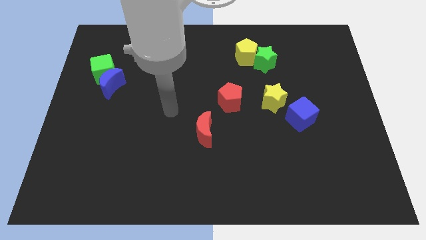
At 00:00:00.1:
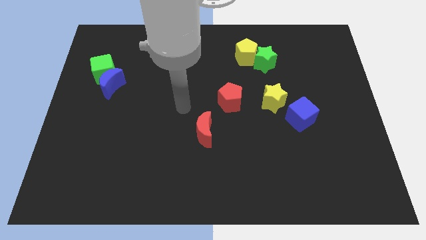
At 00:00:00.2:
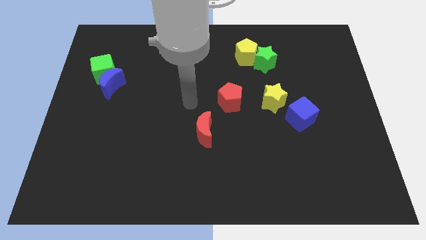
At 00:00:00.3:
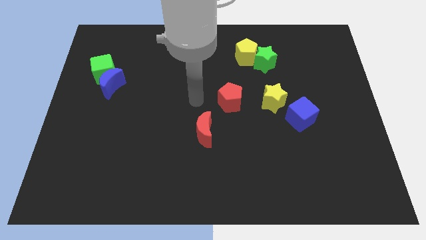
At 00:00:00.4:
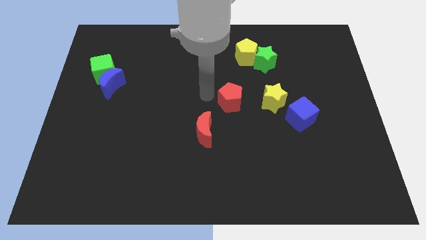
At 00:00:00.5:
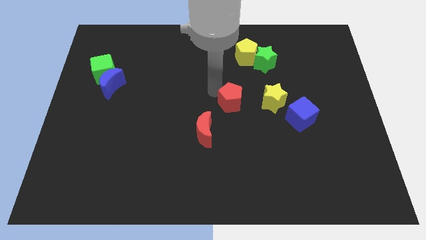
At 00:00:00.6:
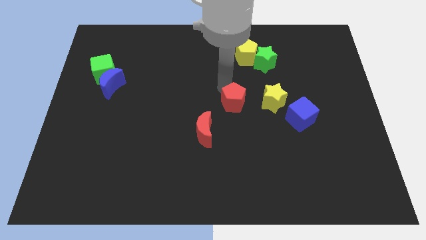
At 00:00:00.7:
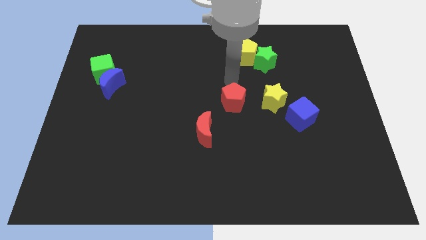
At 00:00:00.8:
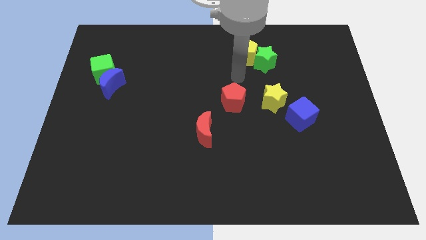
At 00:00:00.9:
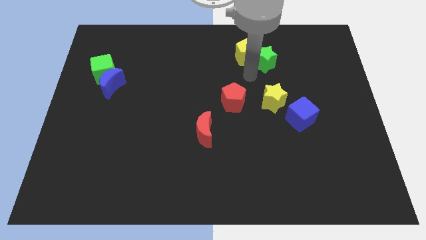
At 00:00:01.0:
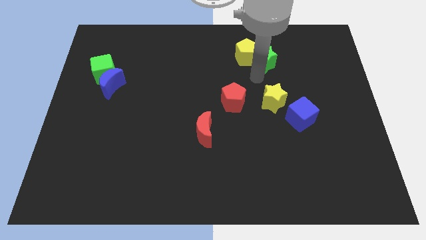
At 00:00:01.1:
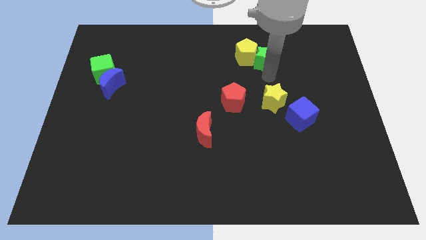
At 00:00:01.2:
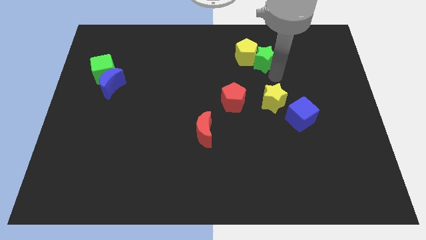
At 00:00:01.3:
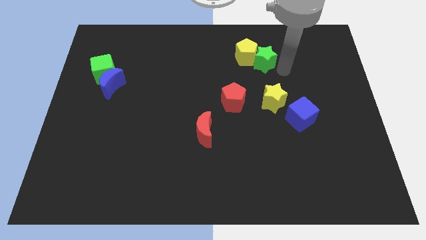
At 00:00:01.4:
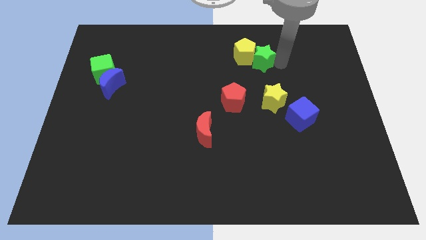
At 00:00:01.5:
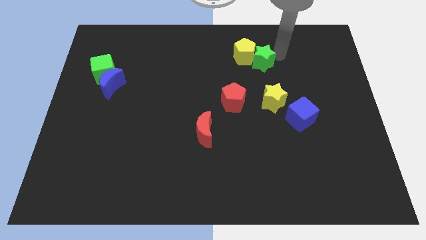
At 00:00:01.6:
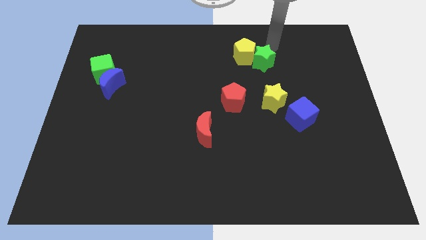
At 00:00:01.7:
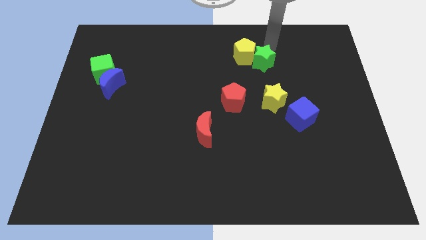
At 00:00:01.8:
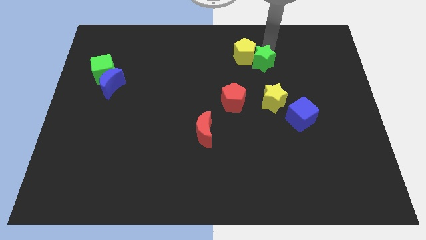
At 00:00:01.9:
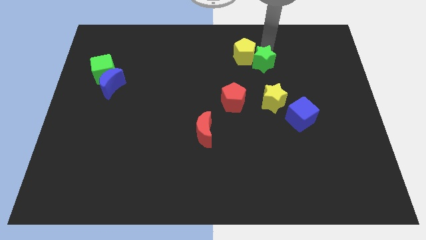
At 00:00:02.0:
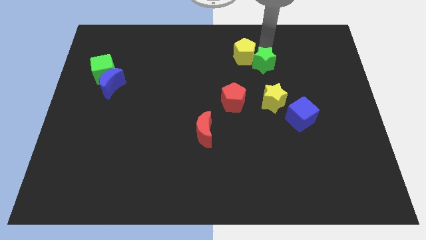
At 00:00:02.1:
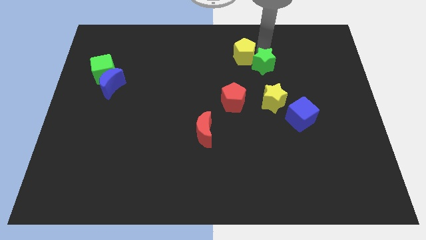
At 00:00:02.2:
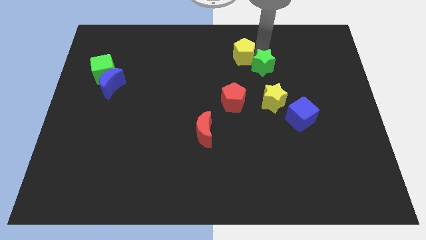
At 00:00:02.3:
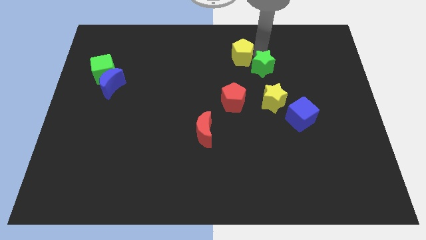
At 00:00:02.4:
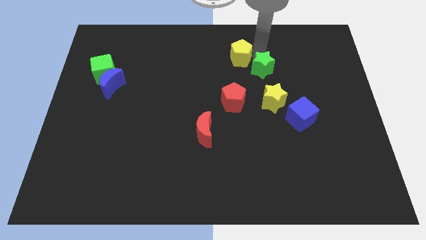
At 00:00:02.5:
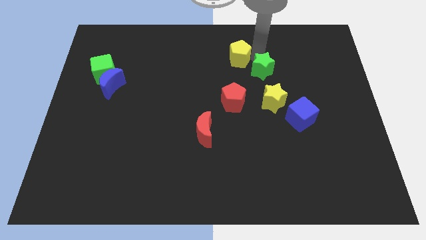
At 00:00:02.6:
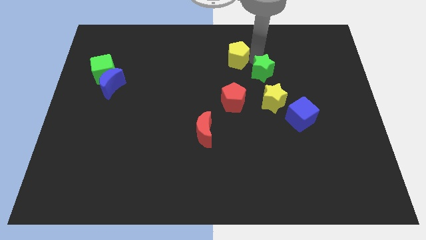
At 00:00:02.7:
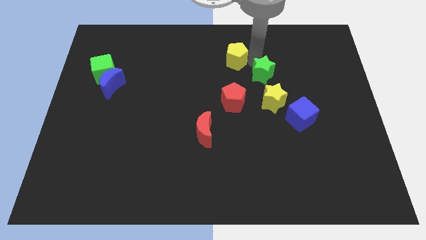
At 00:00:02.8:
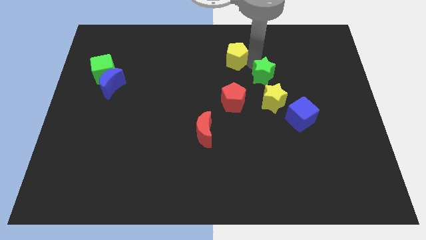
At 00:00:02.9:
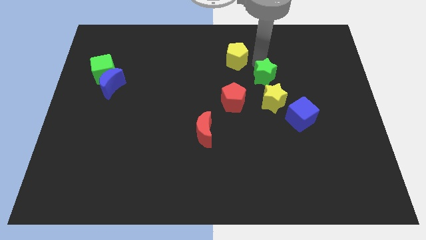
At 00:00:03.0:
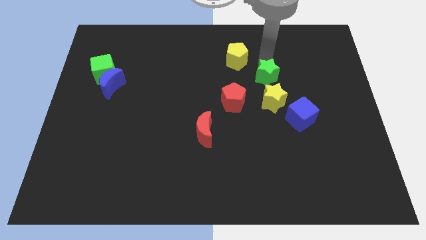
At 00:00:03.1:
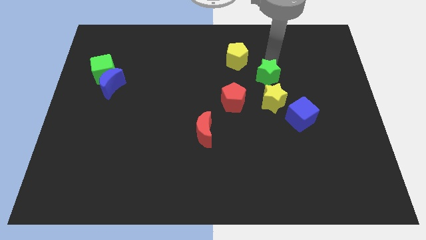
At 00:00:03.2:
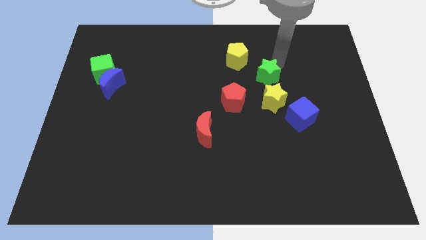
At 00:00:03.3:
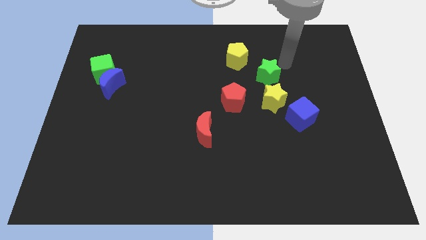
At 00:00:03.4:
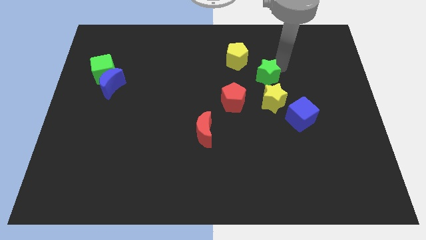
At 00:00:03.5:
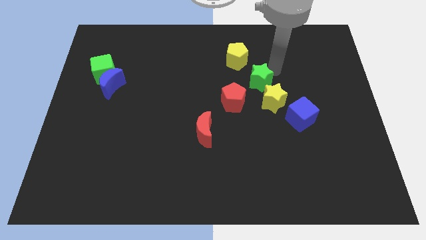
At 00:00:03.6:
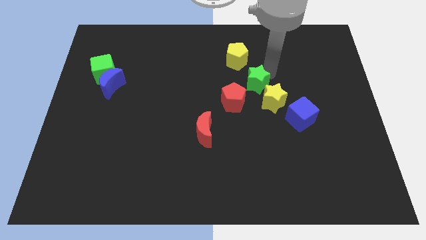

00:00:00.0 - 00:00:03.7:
slightly push the green star downwards

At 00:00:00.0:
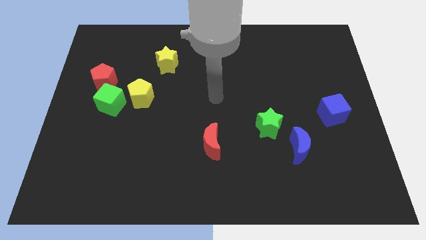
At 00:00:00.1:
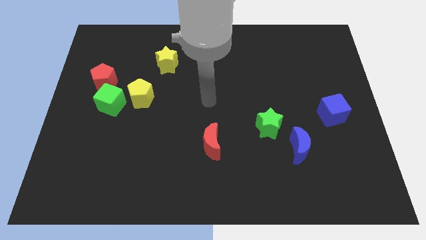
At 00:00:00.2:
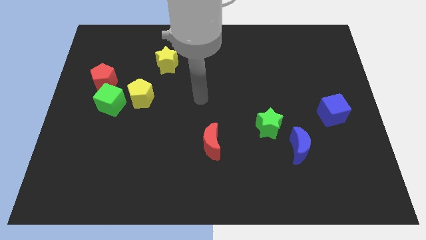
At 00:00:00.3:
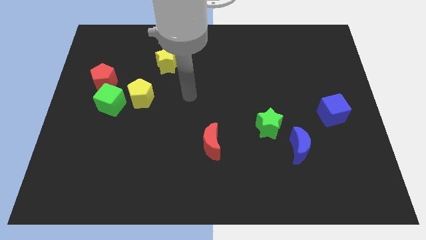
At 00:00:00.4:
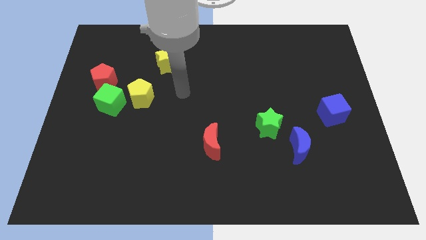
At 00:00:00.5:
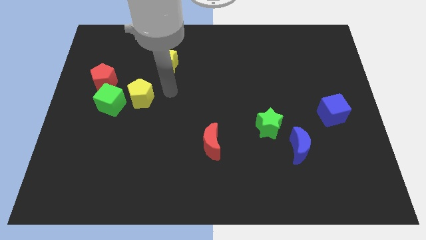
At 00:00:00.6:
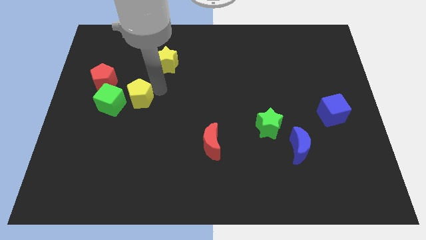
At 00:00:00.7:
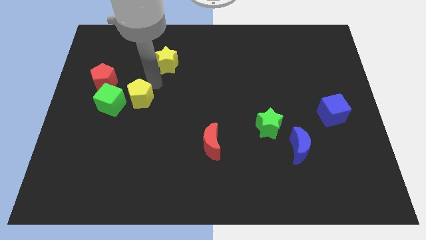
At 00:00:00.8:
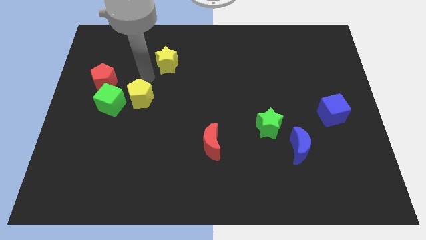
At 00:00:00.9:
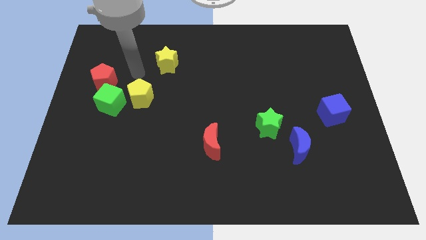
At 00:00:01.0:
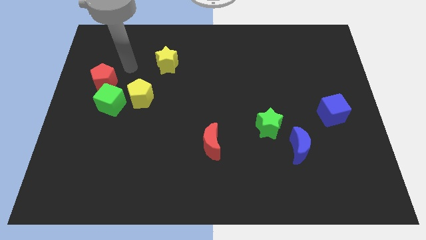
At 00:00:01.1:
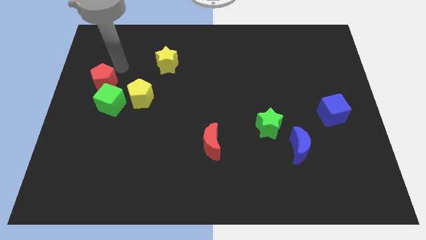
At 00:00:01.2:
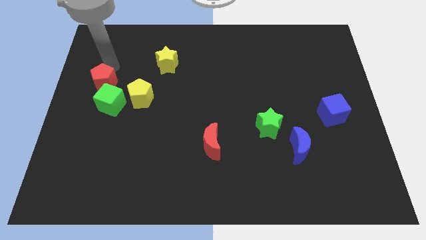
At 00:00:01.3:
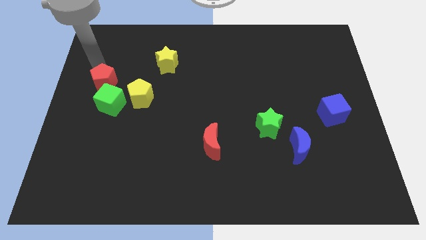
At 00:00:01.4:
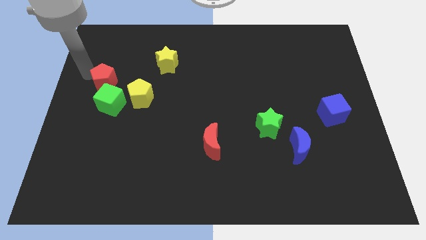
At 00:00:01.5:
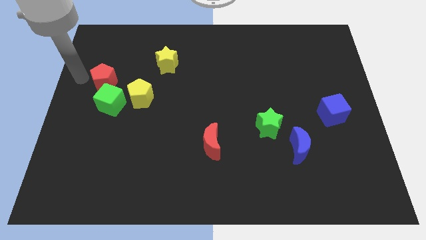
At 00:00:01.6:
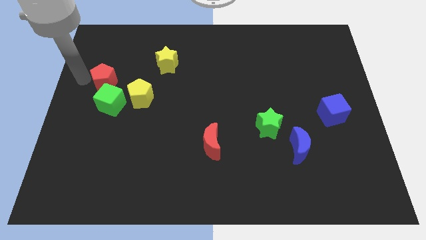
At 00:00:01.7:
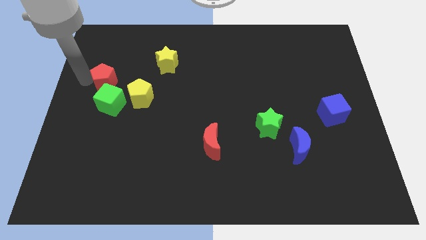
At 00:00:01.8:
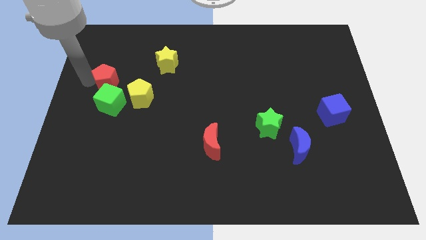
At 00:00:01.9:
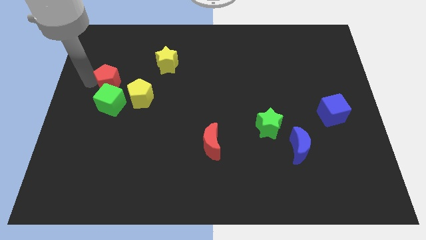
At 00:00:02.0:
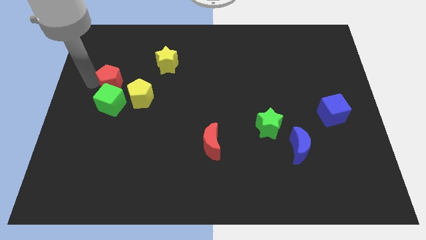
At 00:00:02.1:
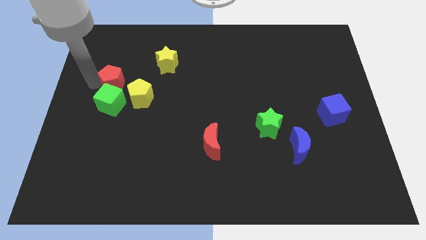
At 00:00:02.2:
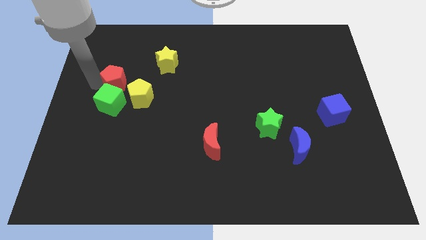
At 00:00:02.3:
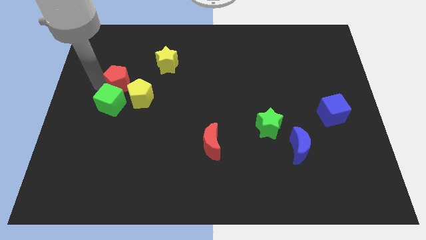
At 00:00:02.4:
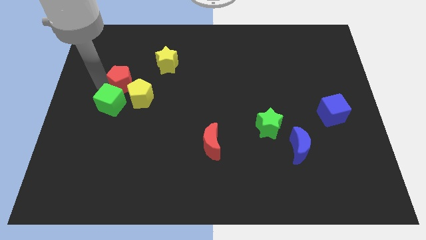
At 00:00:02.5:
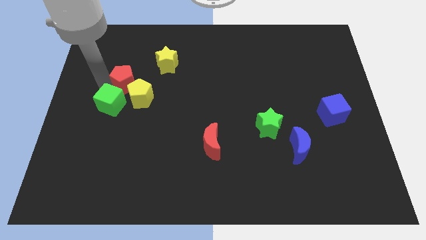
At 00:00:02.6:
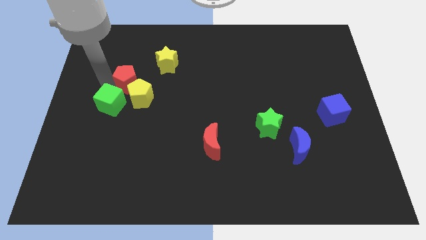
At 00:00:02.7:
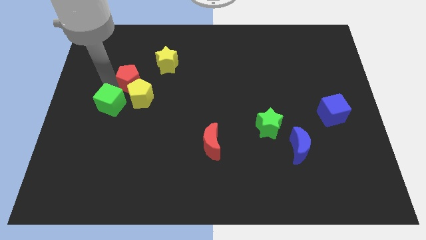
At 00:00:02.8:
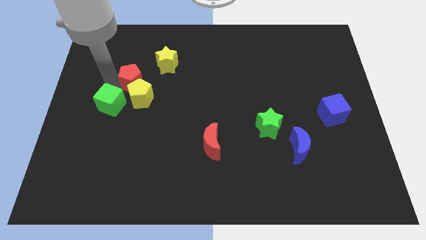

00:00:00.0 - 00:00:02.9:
slightly slide the red pentagon right

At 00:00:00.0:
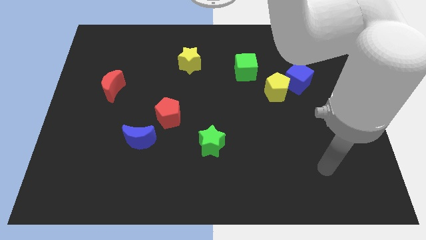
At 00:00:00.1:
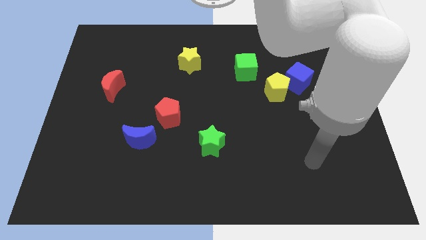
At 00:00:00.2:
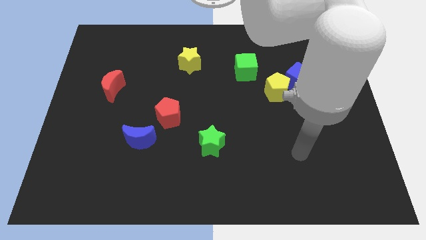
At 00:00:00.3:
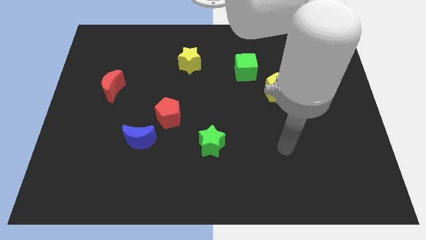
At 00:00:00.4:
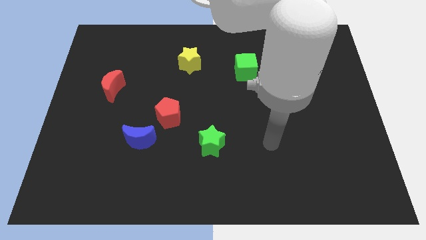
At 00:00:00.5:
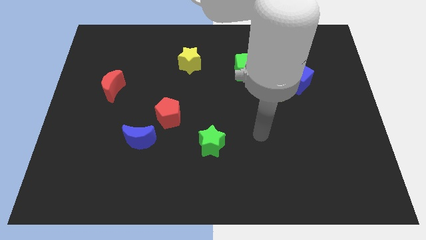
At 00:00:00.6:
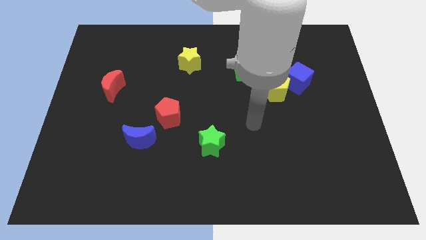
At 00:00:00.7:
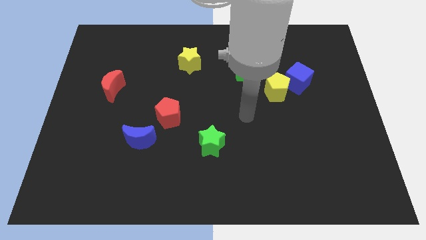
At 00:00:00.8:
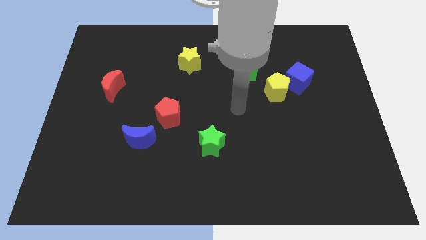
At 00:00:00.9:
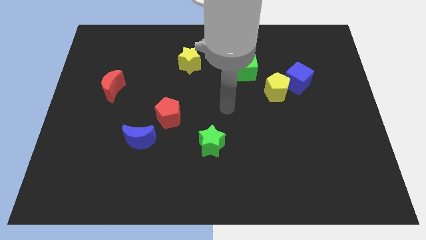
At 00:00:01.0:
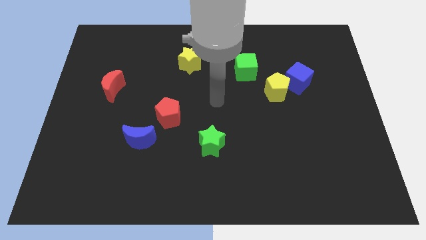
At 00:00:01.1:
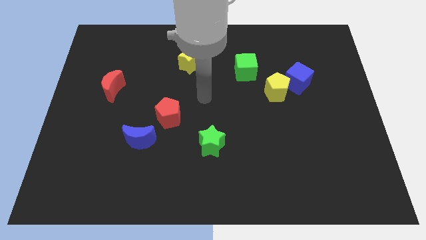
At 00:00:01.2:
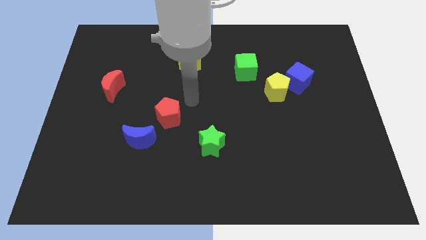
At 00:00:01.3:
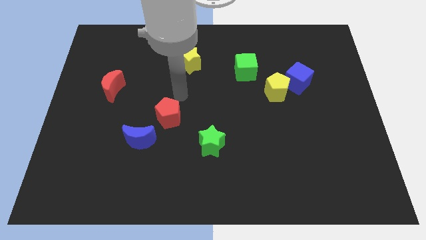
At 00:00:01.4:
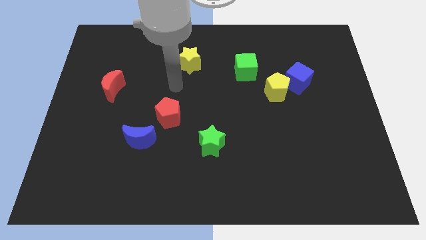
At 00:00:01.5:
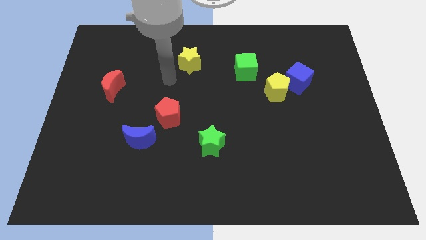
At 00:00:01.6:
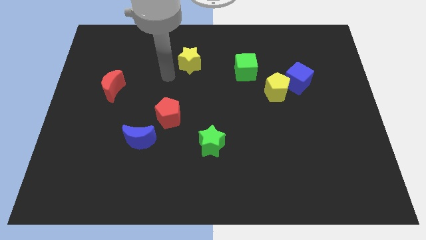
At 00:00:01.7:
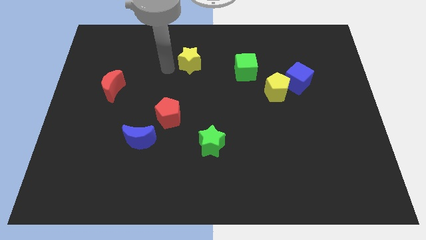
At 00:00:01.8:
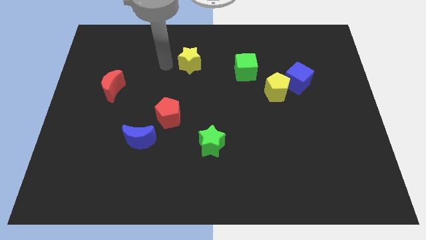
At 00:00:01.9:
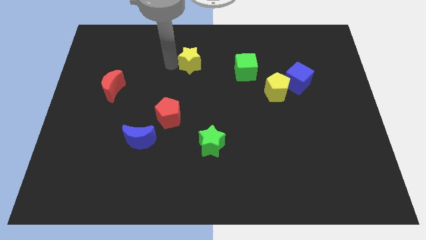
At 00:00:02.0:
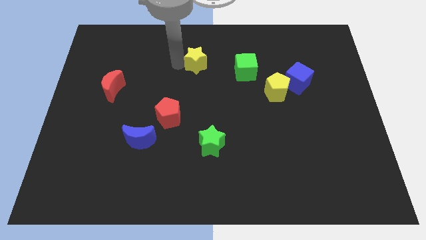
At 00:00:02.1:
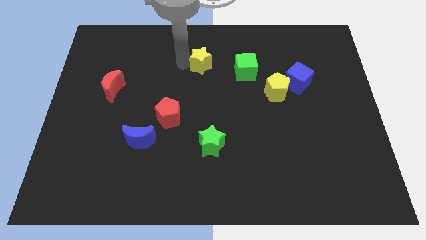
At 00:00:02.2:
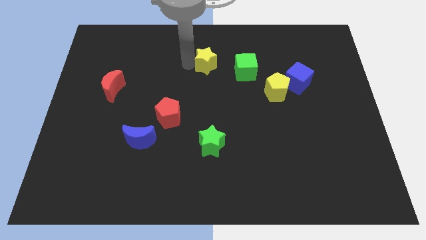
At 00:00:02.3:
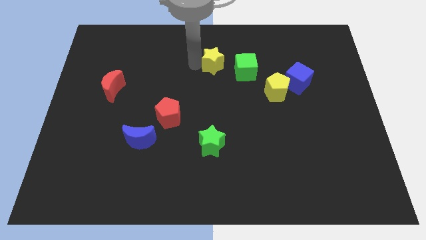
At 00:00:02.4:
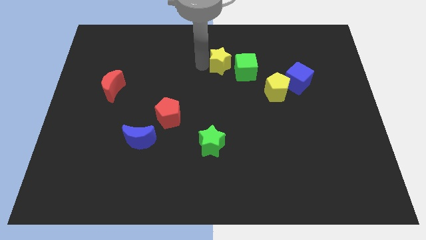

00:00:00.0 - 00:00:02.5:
move the yellow star right somewhat
